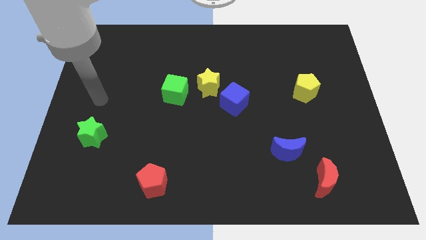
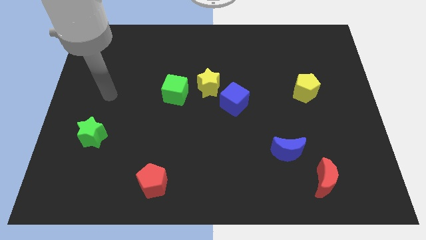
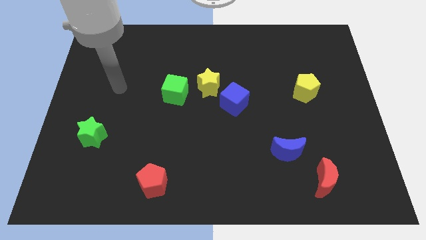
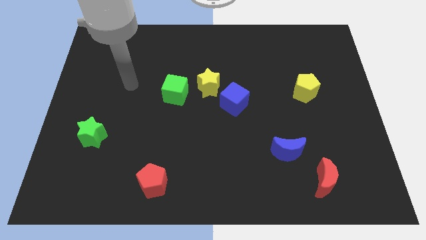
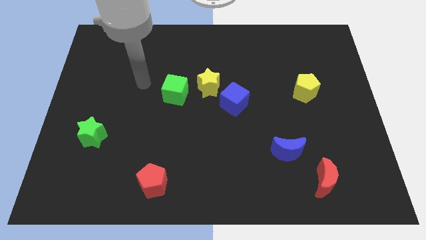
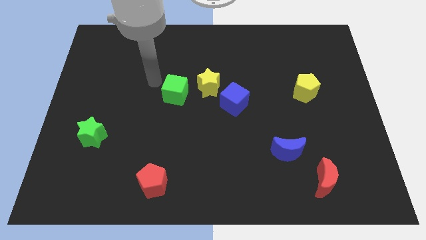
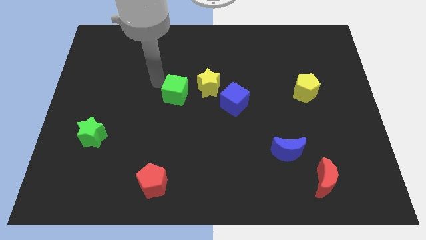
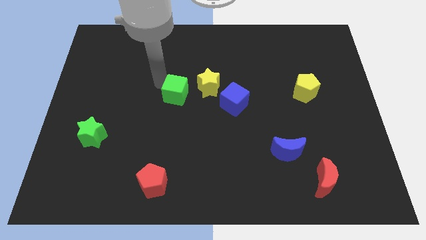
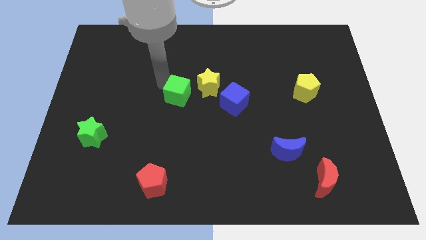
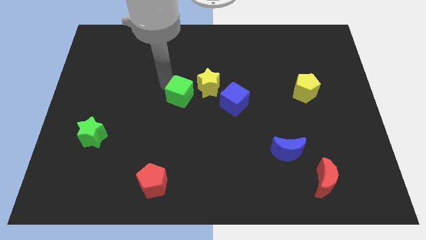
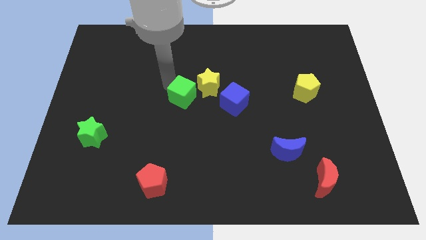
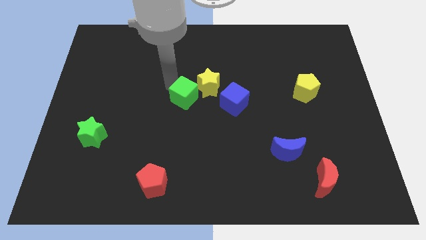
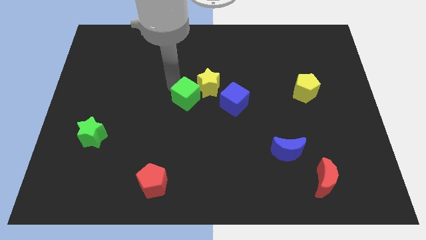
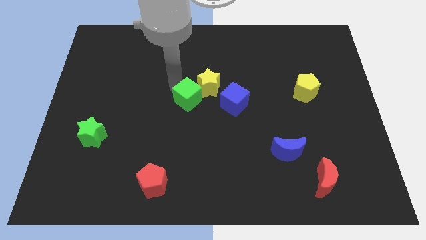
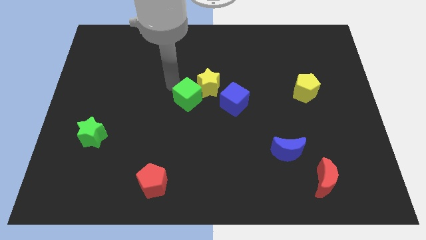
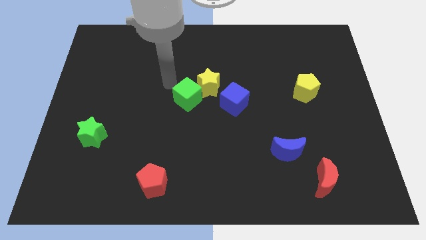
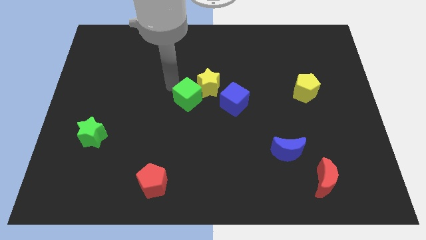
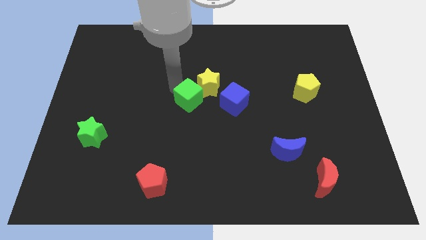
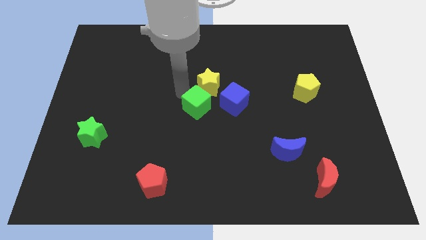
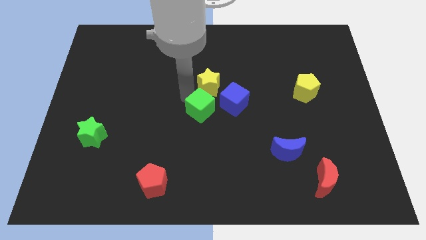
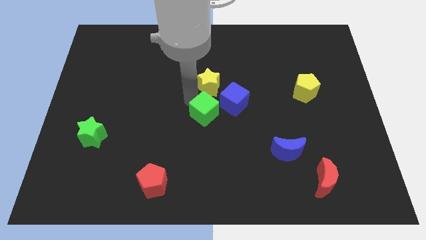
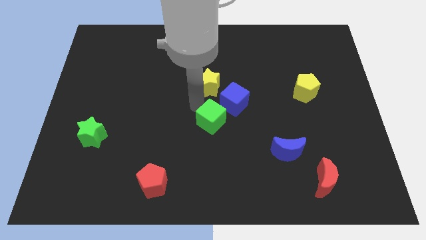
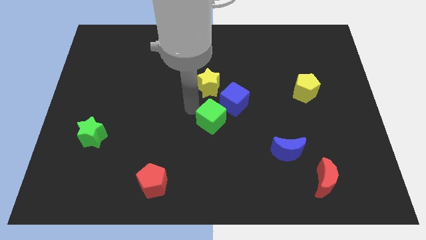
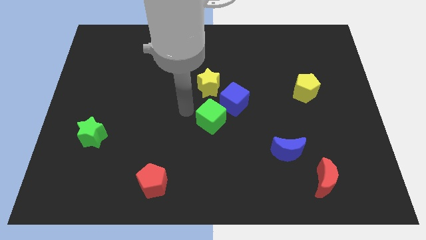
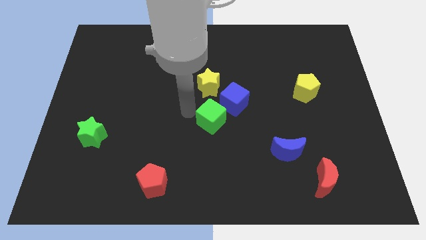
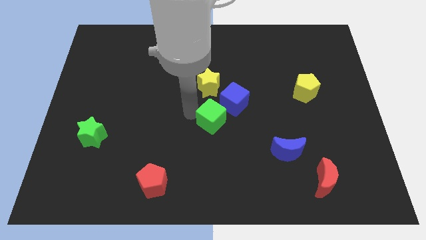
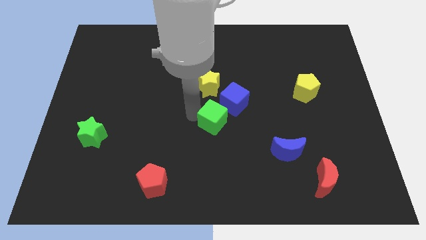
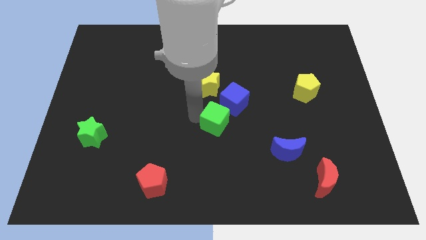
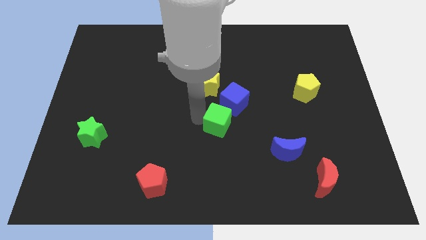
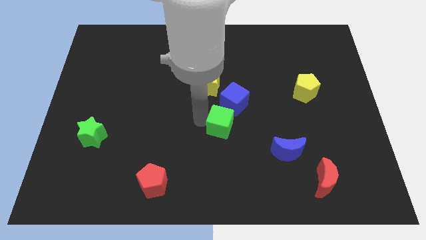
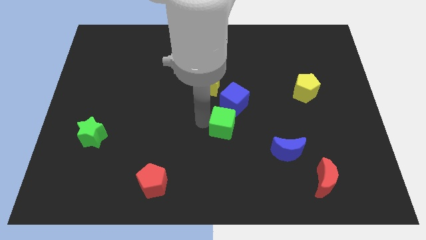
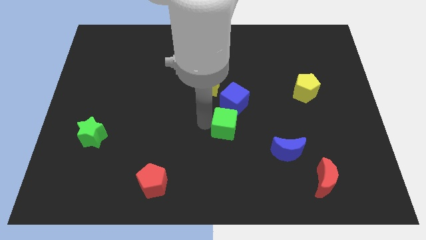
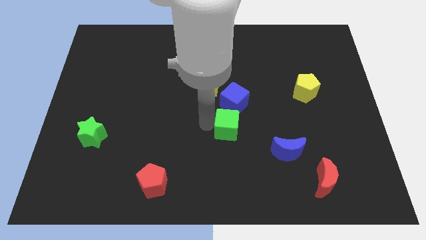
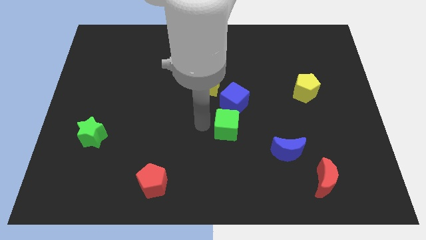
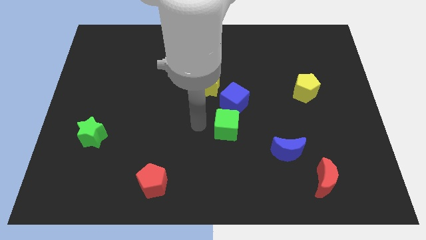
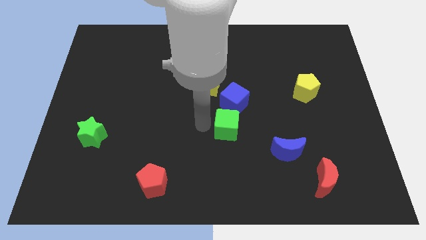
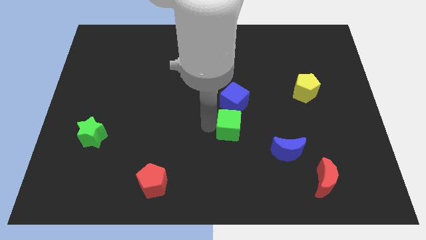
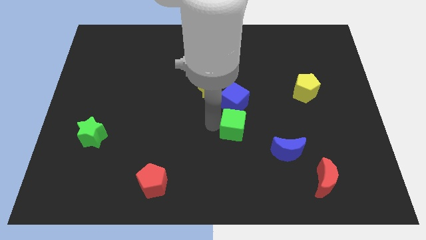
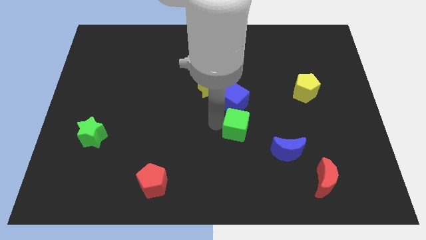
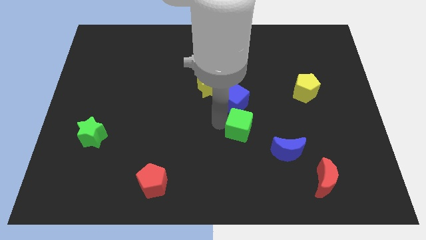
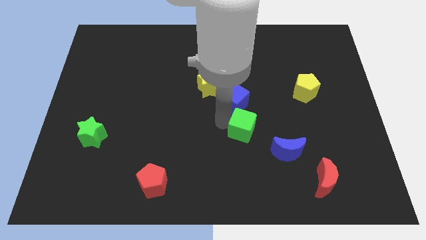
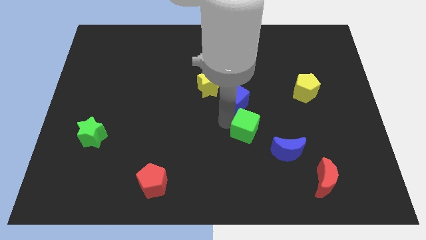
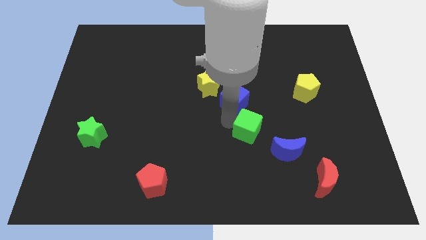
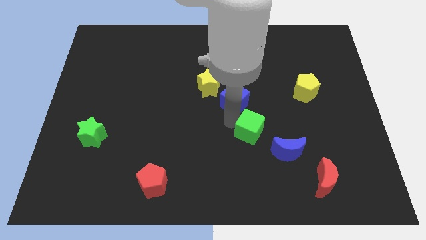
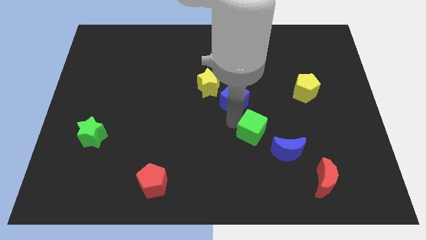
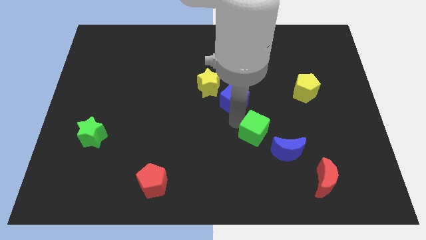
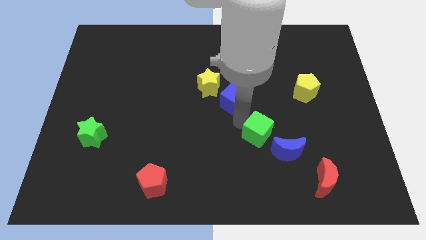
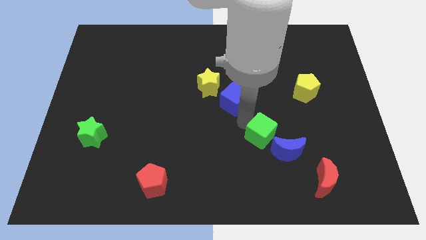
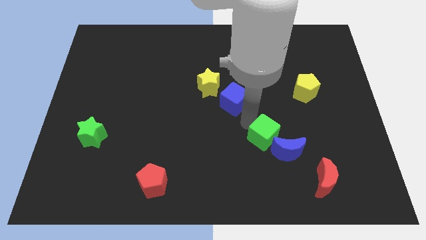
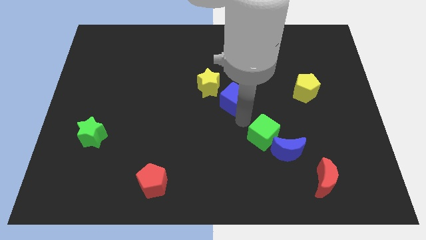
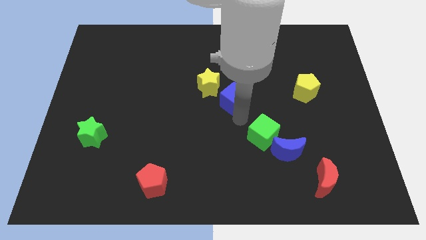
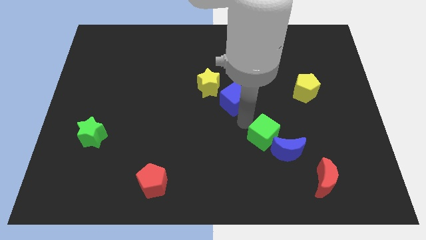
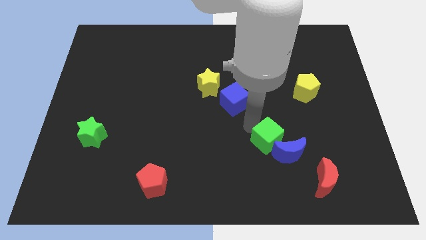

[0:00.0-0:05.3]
push the green cube to the blue moon

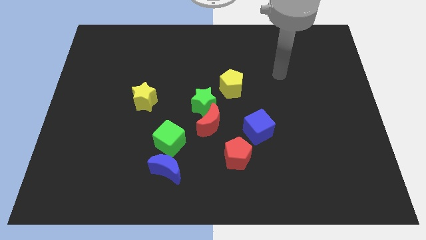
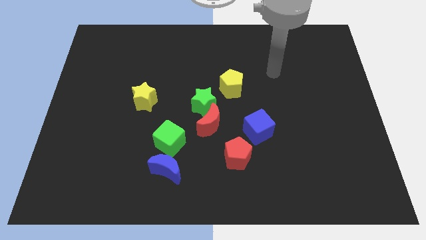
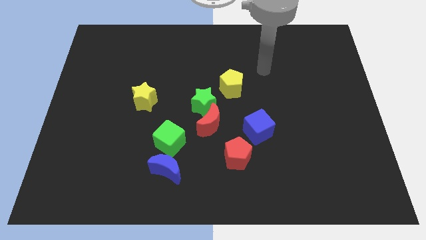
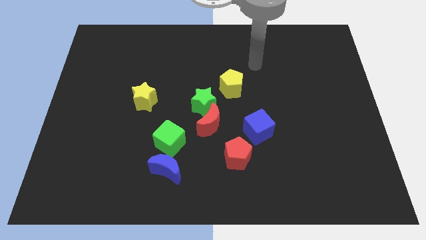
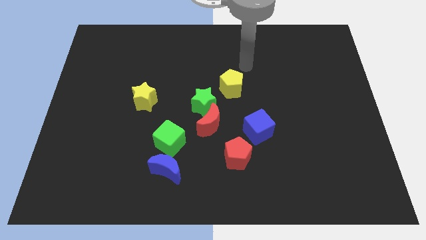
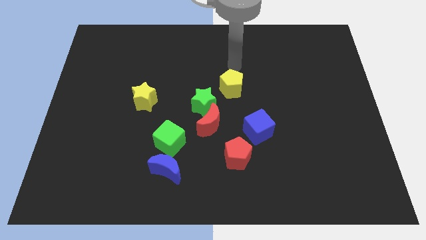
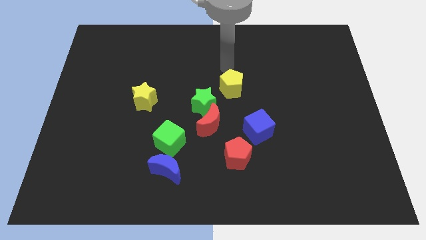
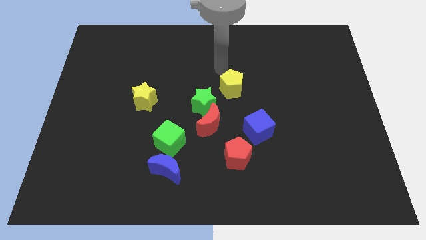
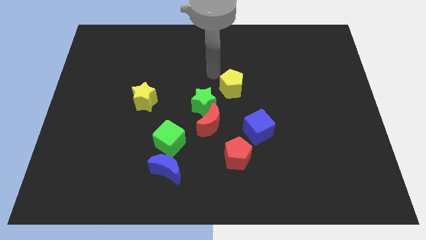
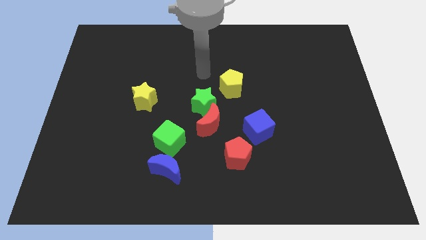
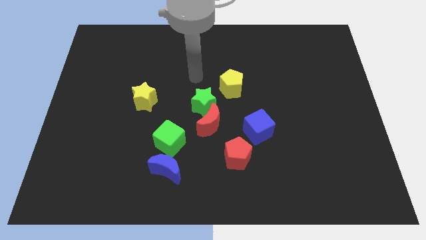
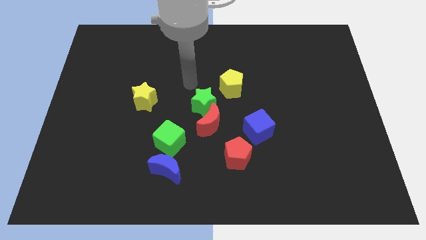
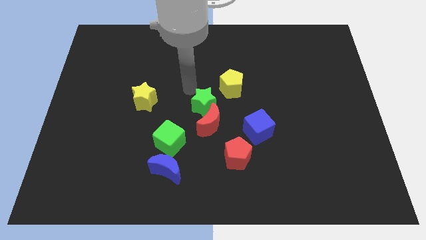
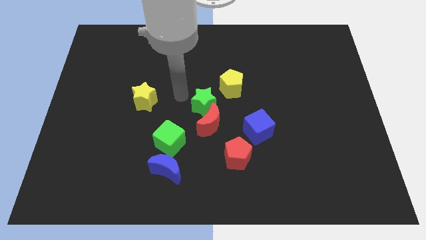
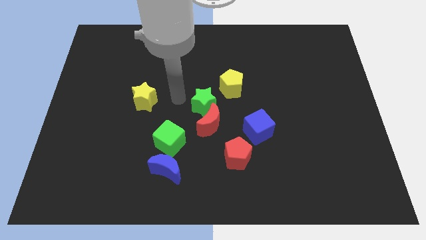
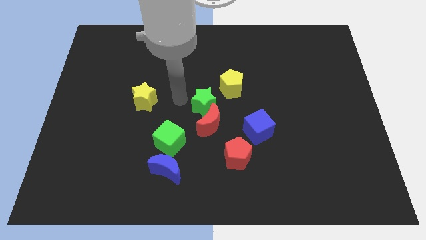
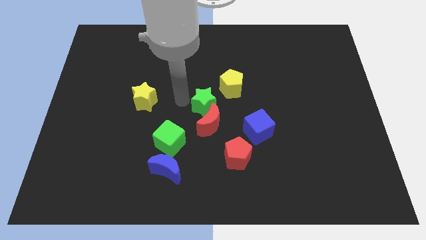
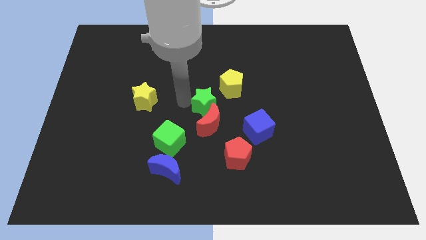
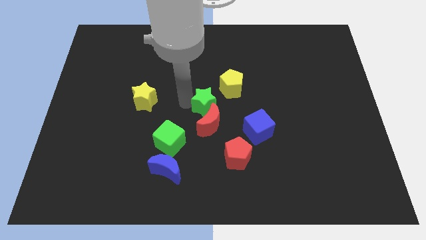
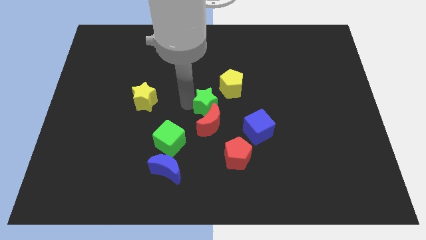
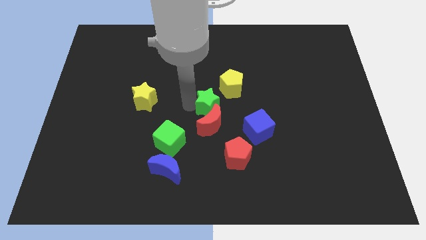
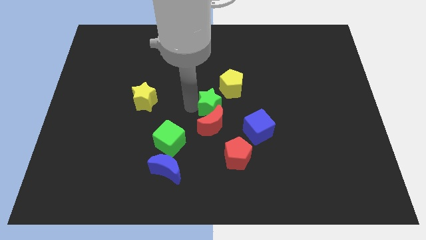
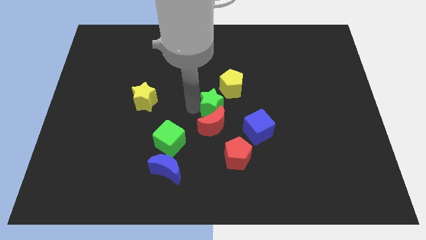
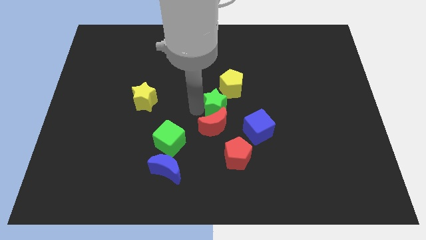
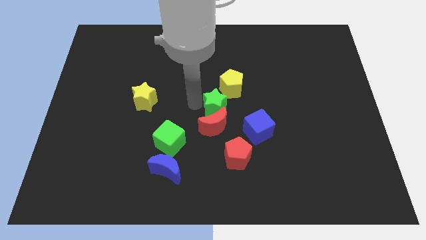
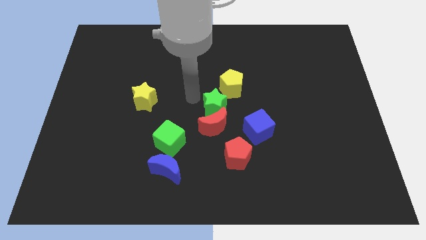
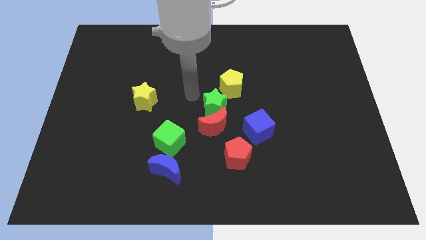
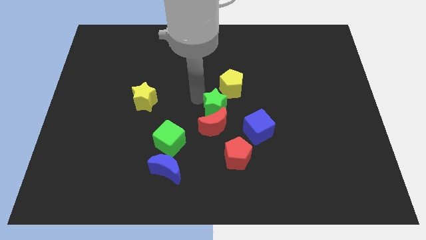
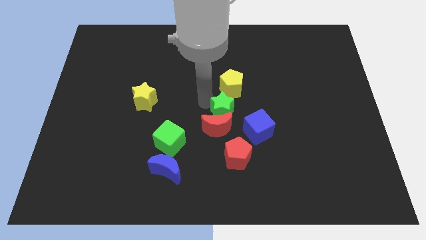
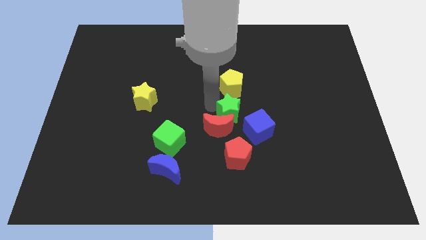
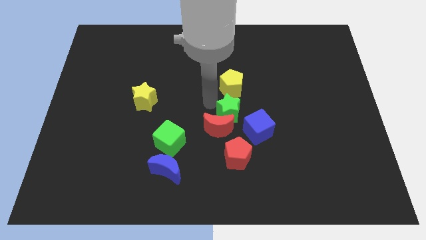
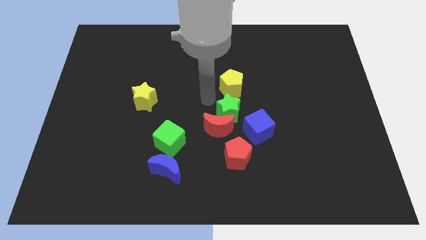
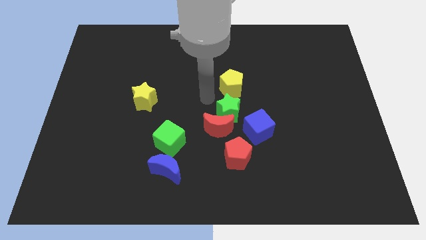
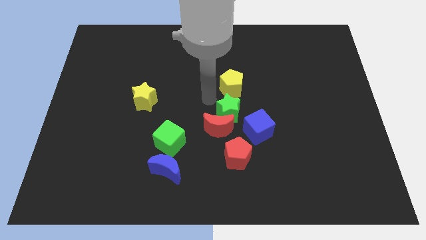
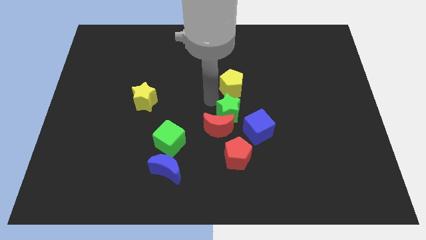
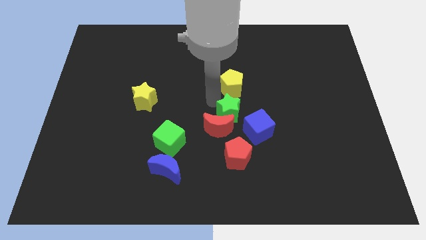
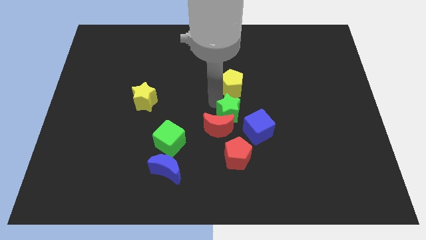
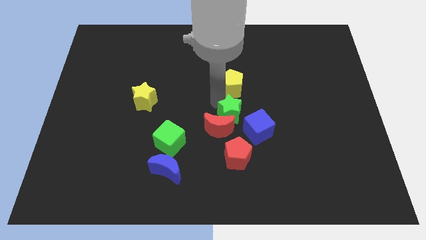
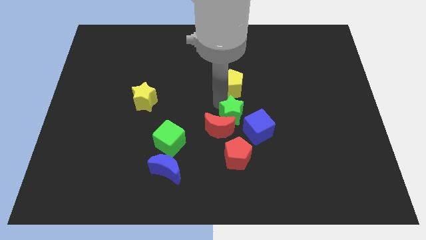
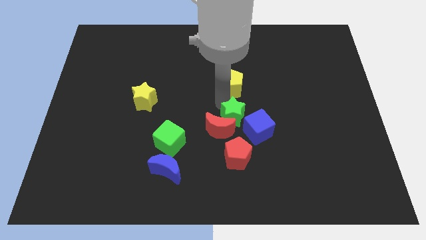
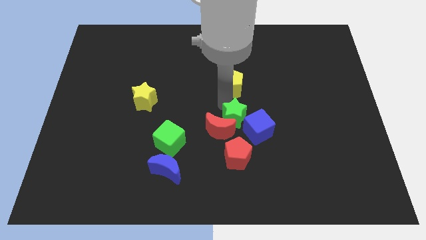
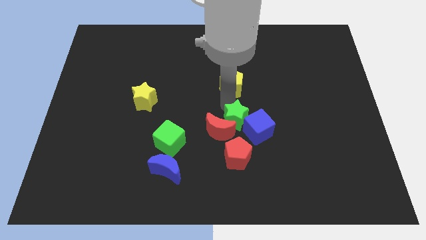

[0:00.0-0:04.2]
push the green star towards the blue cube
